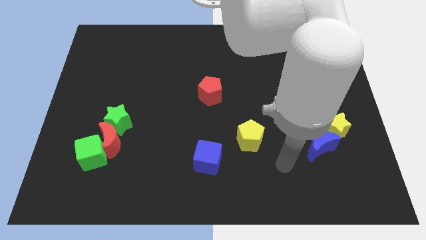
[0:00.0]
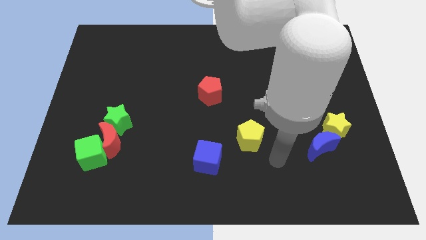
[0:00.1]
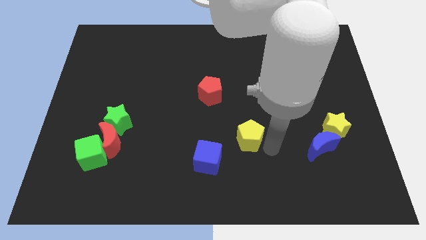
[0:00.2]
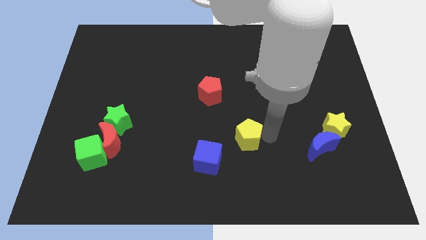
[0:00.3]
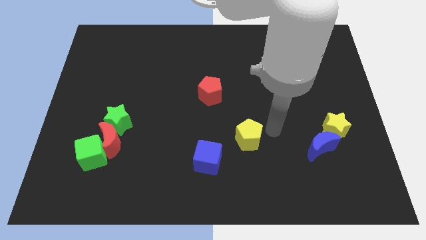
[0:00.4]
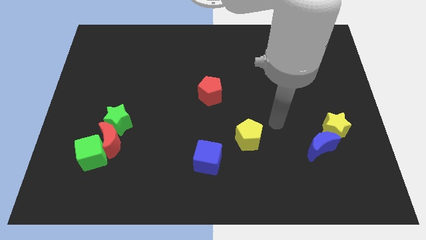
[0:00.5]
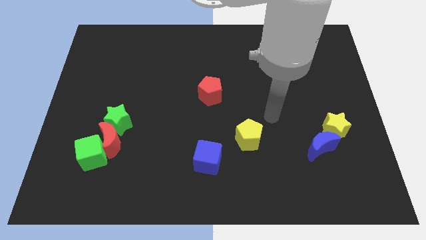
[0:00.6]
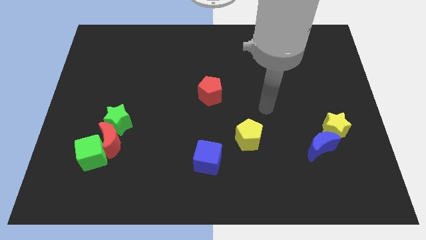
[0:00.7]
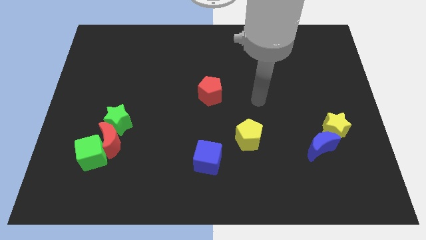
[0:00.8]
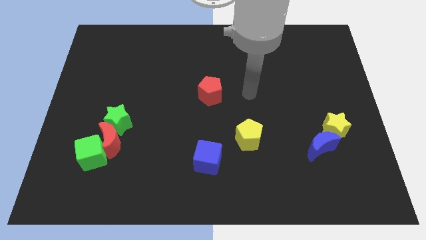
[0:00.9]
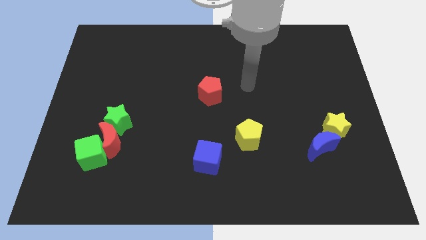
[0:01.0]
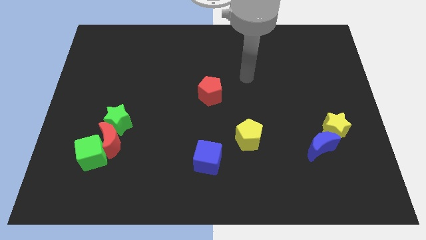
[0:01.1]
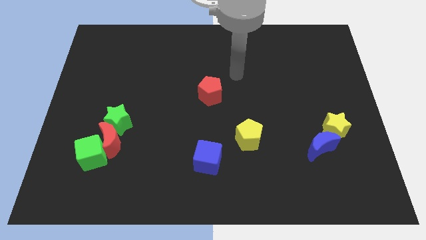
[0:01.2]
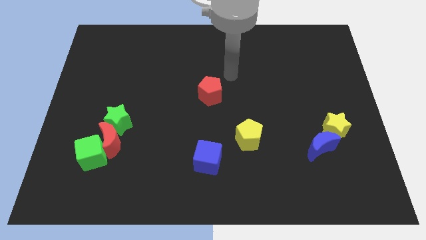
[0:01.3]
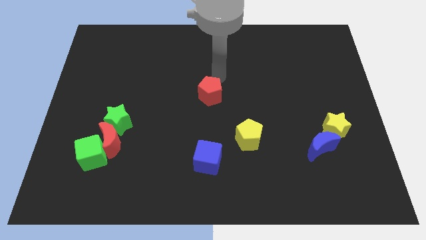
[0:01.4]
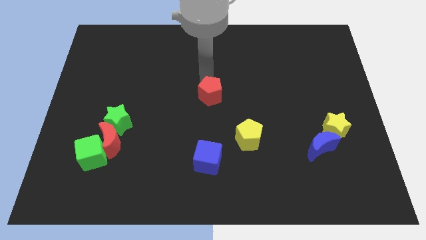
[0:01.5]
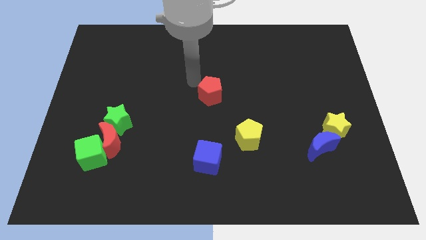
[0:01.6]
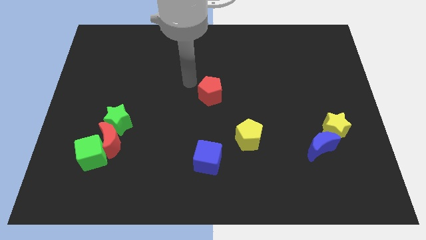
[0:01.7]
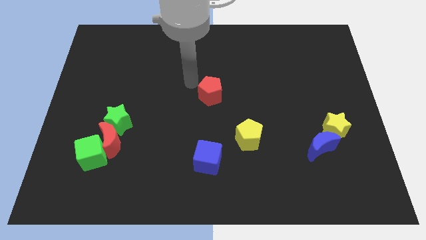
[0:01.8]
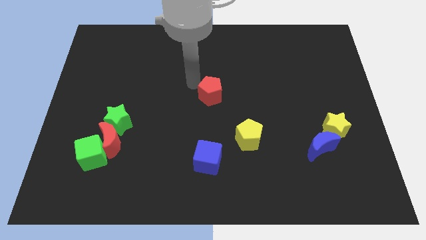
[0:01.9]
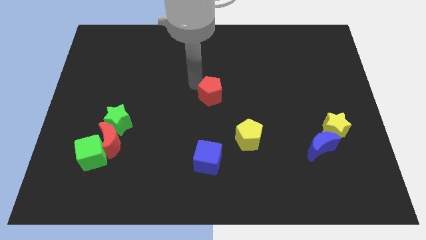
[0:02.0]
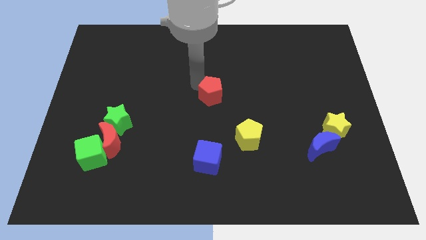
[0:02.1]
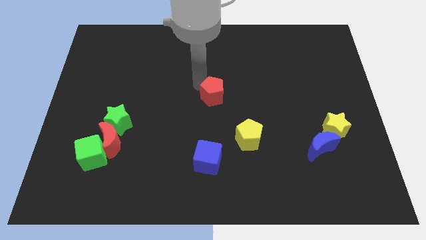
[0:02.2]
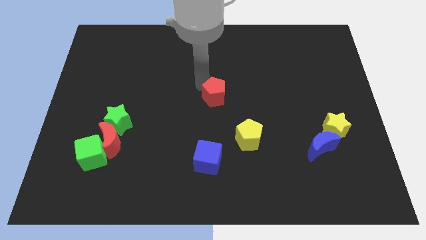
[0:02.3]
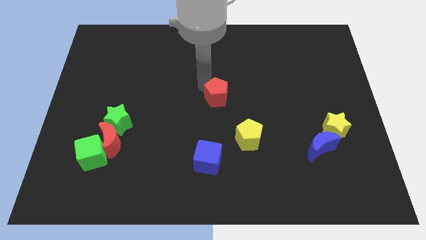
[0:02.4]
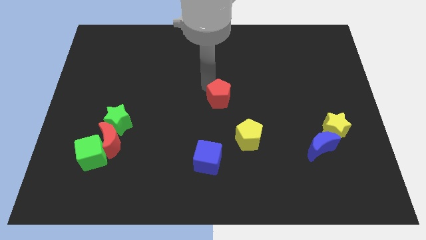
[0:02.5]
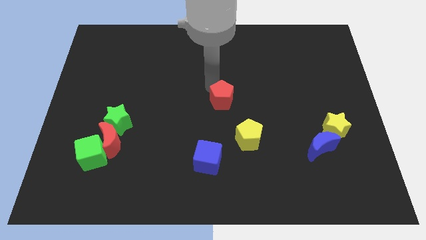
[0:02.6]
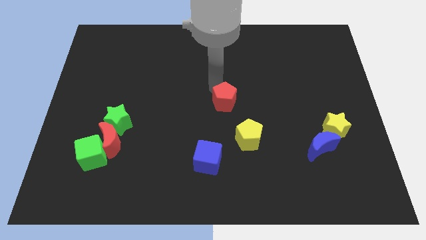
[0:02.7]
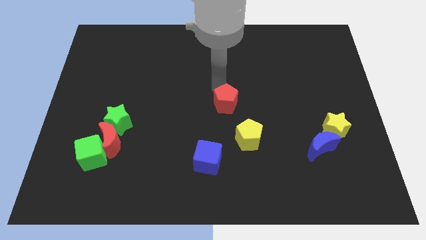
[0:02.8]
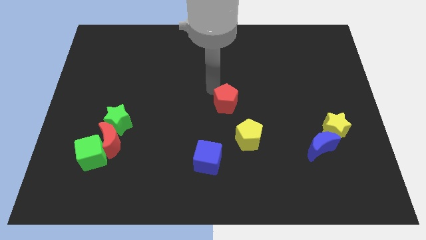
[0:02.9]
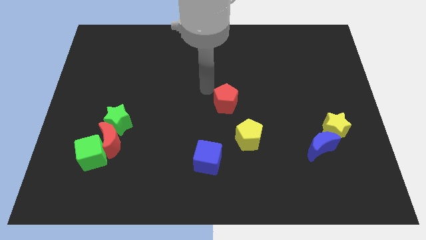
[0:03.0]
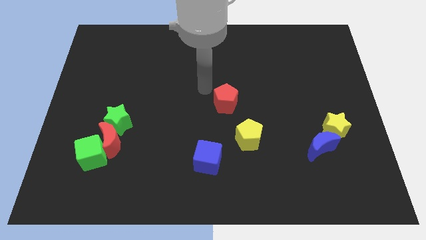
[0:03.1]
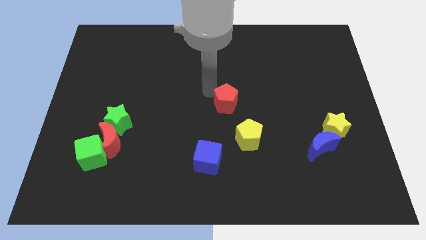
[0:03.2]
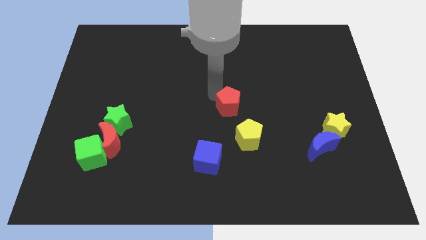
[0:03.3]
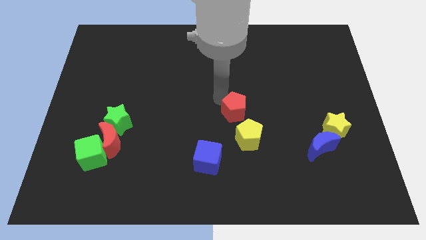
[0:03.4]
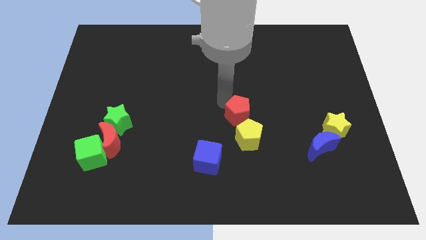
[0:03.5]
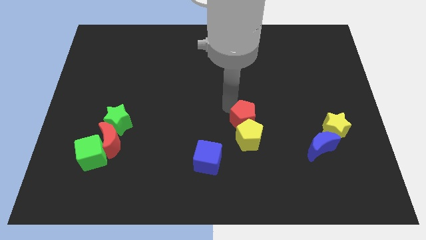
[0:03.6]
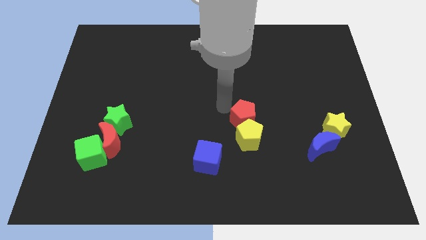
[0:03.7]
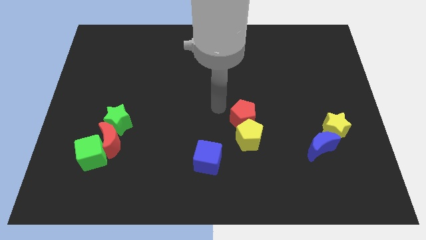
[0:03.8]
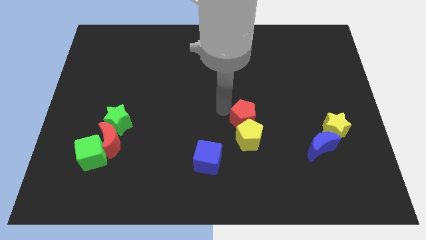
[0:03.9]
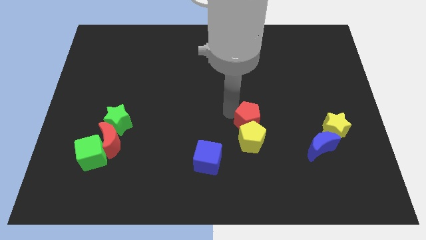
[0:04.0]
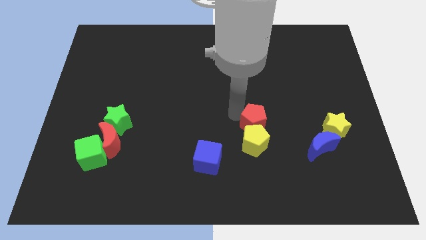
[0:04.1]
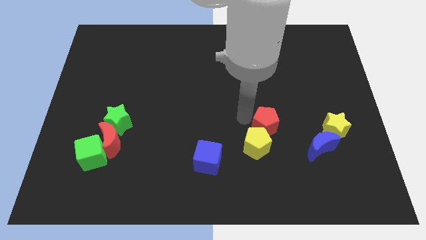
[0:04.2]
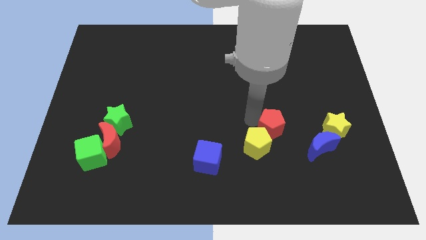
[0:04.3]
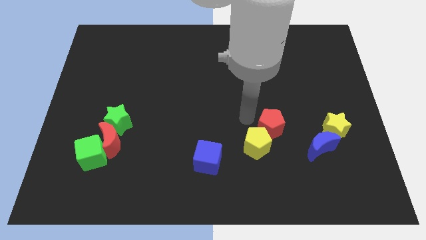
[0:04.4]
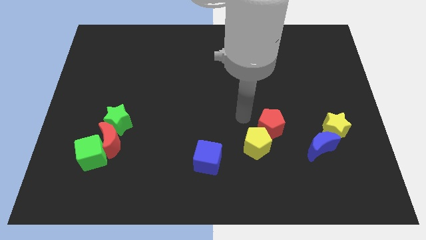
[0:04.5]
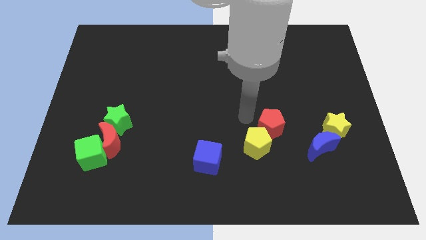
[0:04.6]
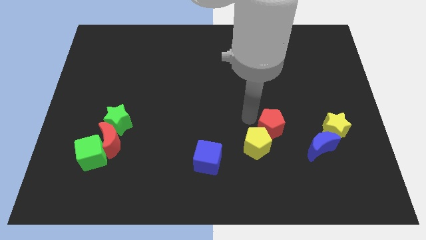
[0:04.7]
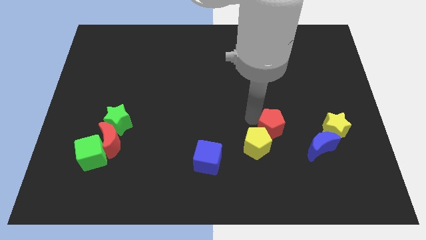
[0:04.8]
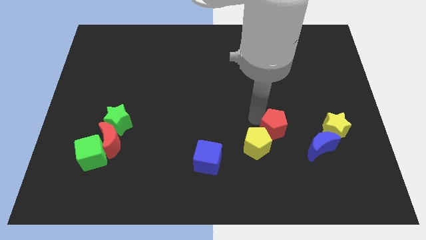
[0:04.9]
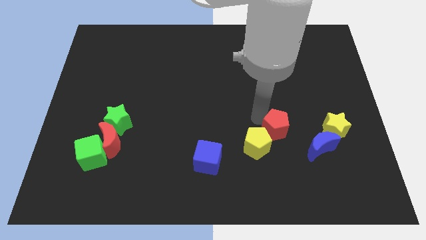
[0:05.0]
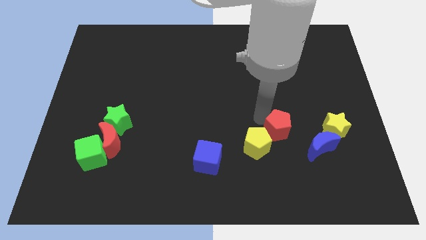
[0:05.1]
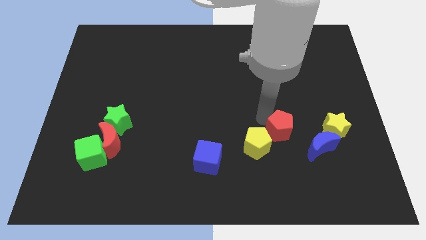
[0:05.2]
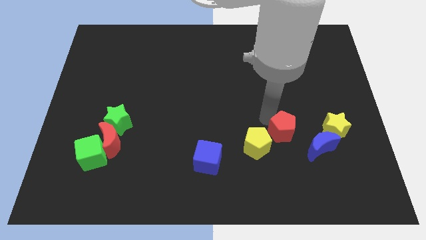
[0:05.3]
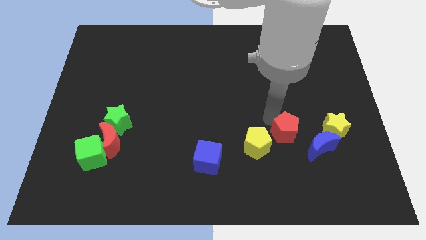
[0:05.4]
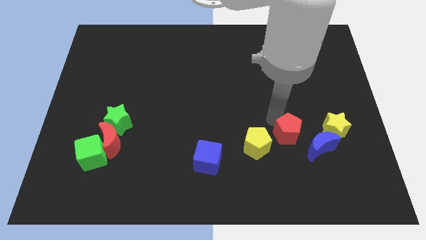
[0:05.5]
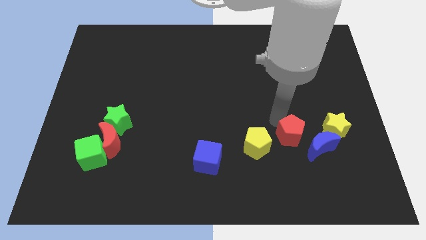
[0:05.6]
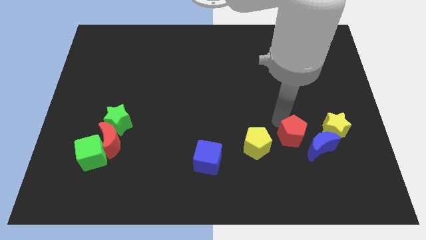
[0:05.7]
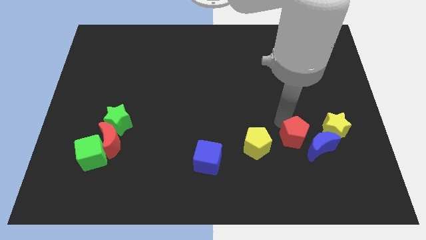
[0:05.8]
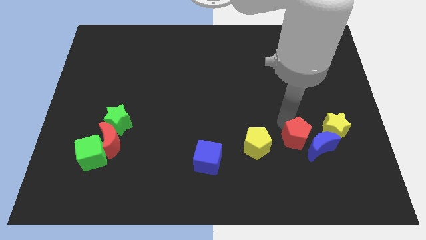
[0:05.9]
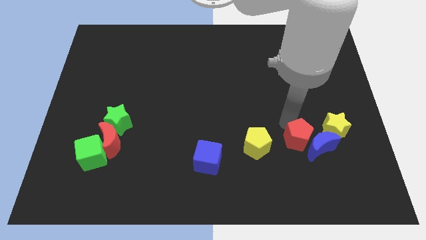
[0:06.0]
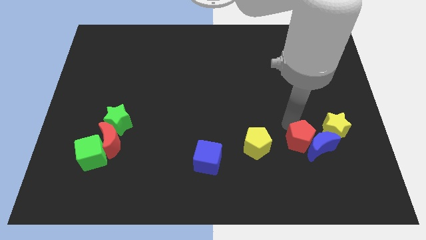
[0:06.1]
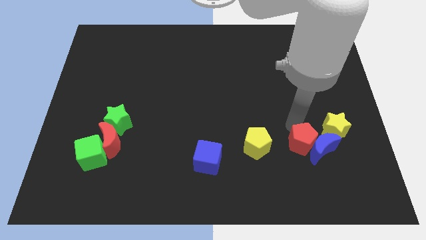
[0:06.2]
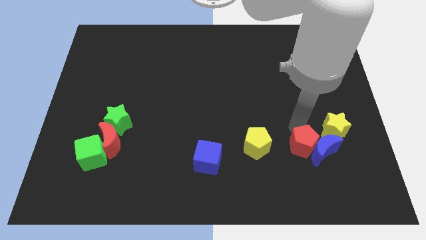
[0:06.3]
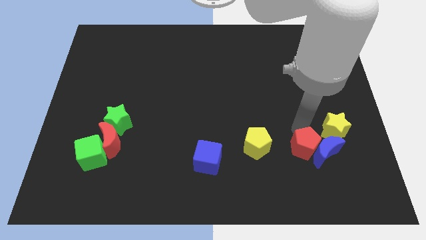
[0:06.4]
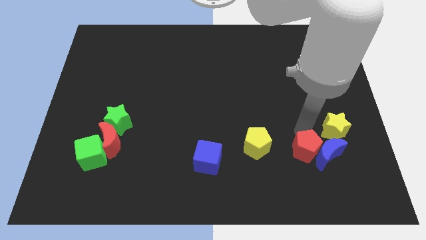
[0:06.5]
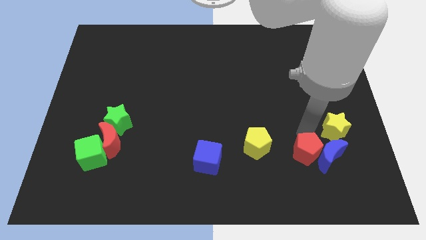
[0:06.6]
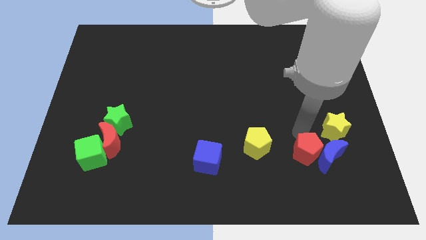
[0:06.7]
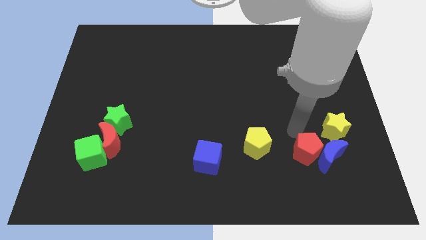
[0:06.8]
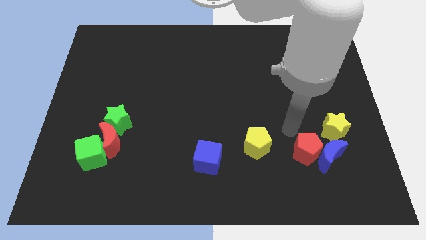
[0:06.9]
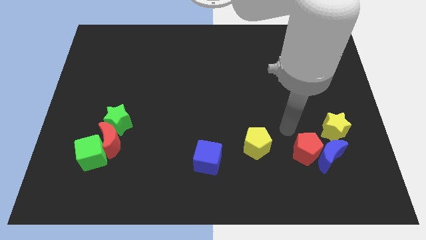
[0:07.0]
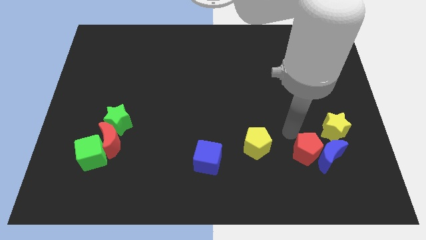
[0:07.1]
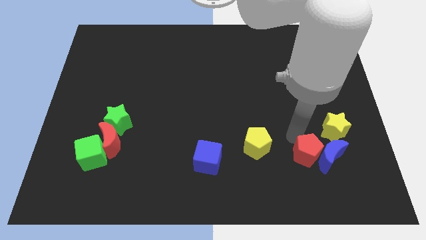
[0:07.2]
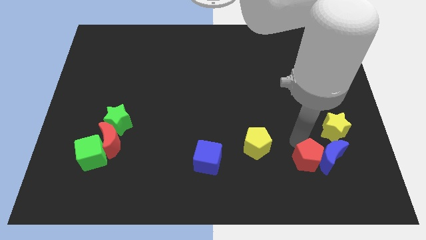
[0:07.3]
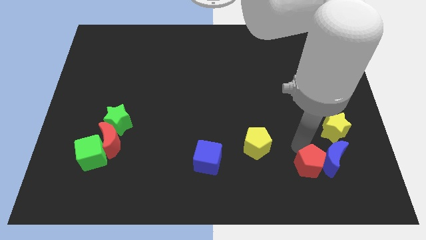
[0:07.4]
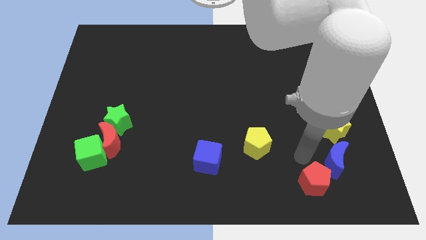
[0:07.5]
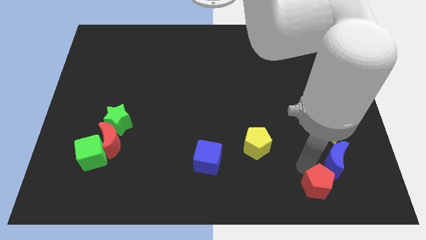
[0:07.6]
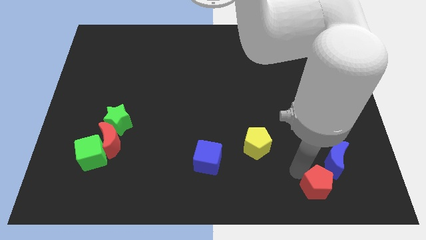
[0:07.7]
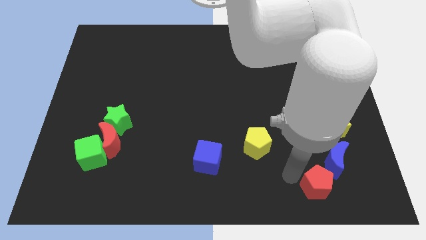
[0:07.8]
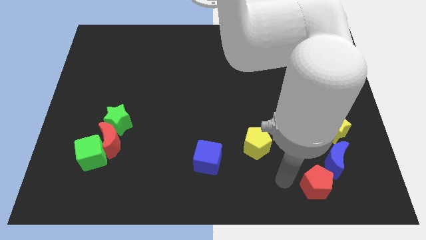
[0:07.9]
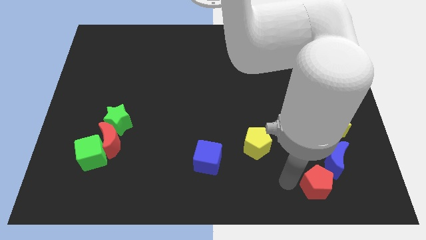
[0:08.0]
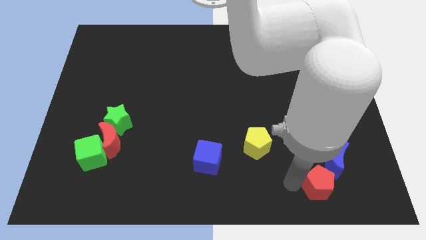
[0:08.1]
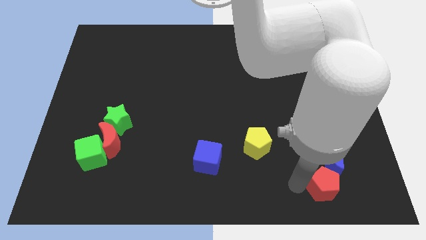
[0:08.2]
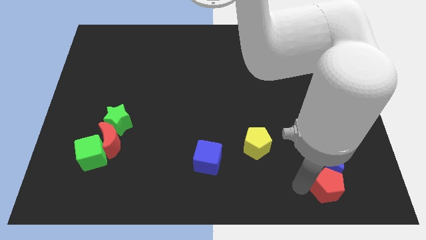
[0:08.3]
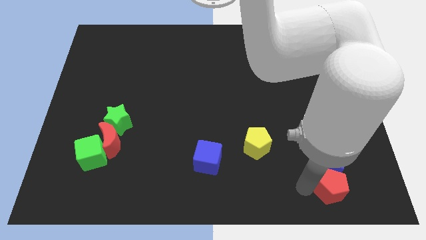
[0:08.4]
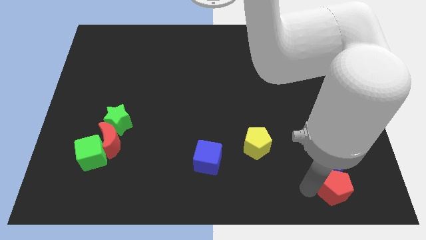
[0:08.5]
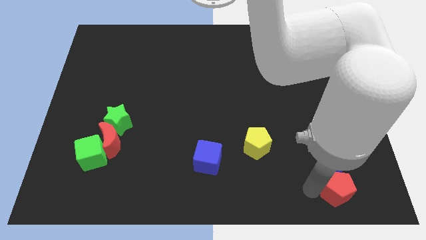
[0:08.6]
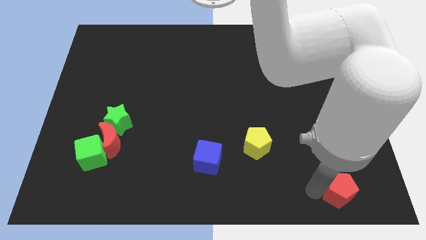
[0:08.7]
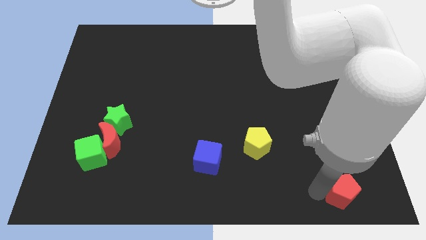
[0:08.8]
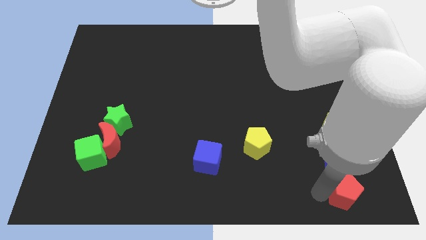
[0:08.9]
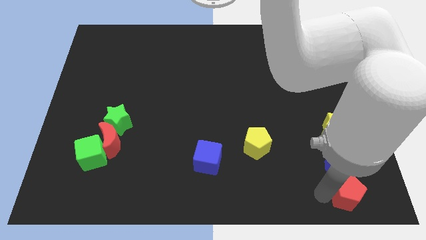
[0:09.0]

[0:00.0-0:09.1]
slide the red pentagon to the bottom right
